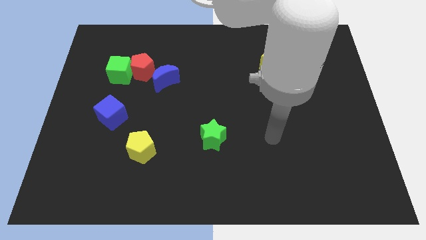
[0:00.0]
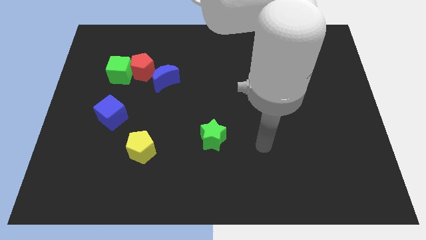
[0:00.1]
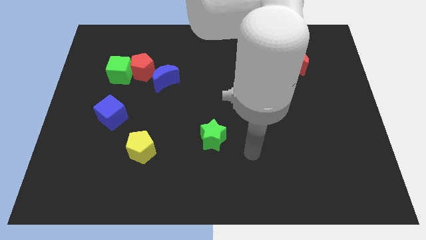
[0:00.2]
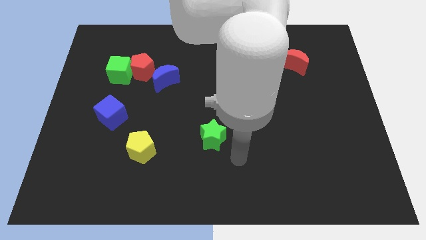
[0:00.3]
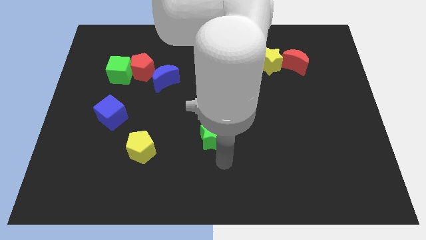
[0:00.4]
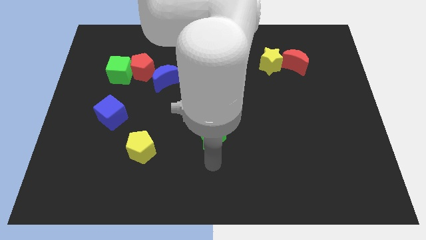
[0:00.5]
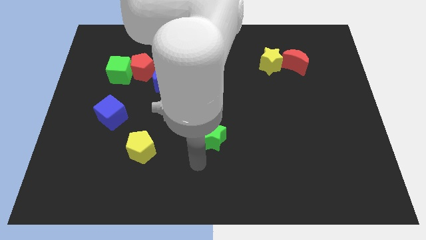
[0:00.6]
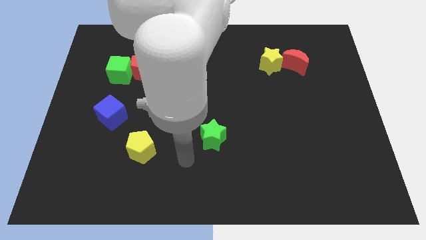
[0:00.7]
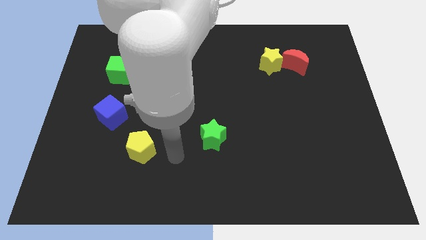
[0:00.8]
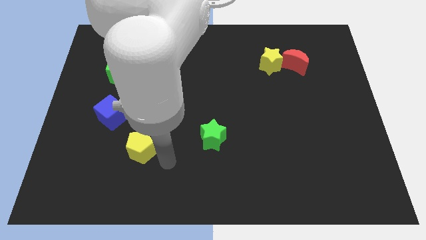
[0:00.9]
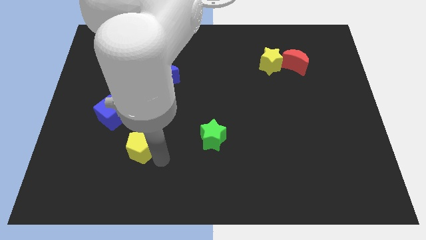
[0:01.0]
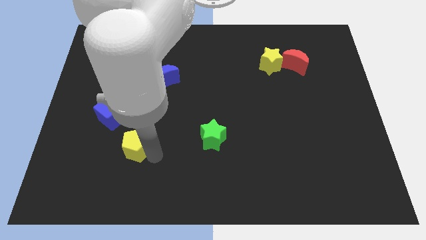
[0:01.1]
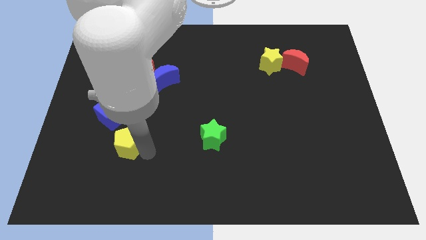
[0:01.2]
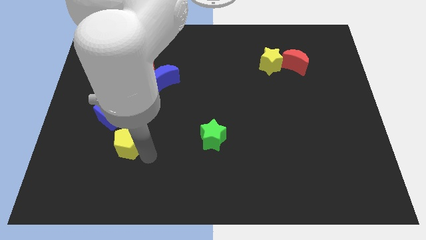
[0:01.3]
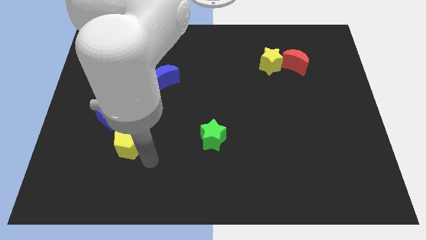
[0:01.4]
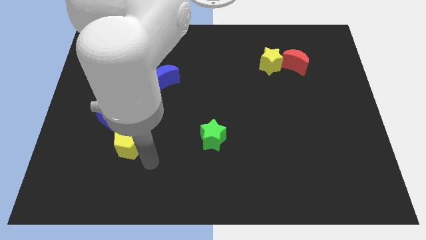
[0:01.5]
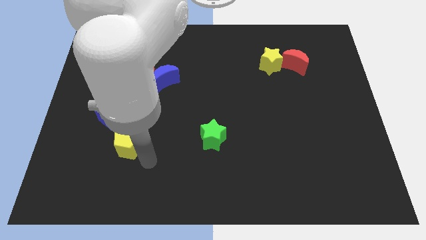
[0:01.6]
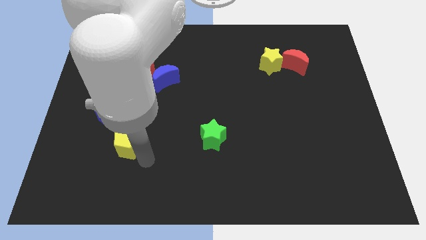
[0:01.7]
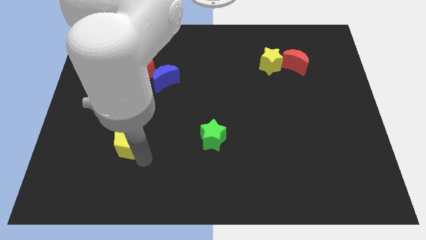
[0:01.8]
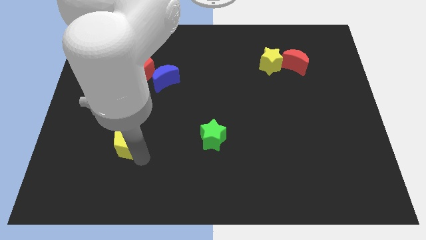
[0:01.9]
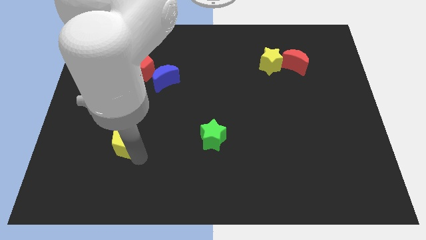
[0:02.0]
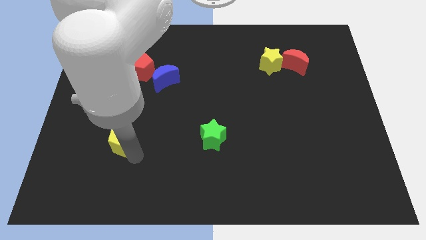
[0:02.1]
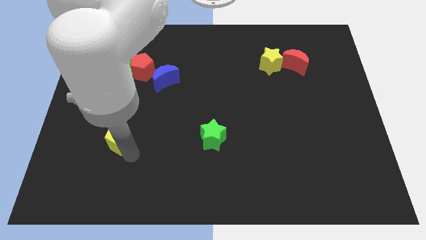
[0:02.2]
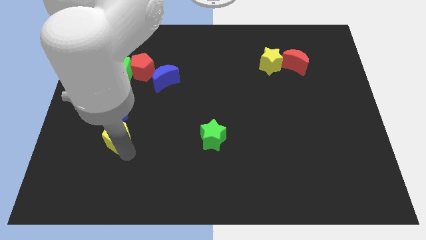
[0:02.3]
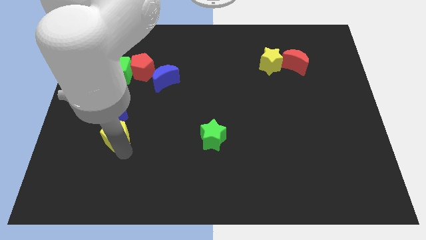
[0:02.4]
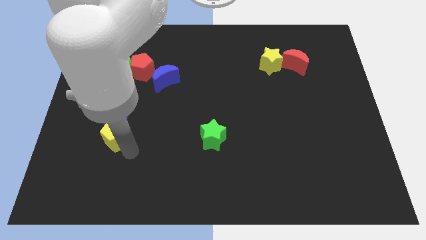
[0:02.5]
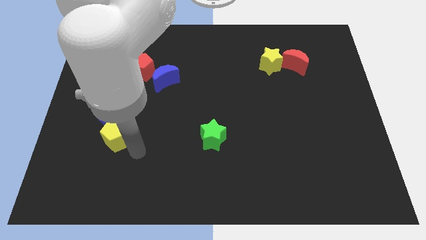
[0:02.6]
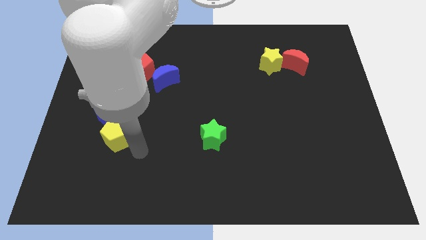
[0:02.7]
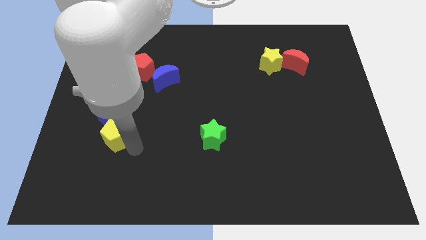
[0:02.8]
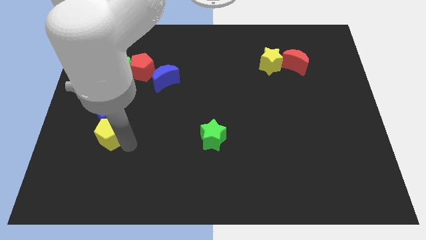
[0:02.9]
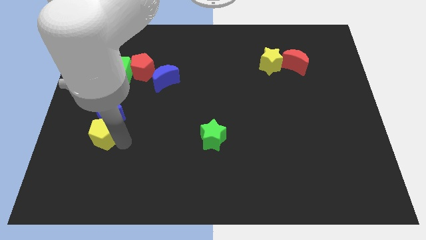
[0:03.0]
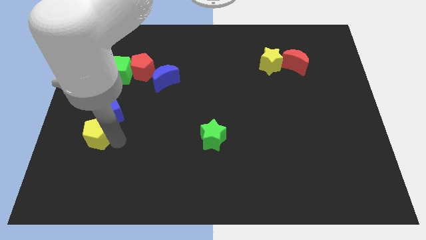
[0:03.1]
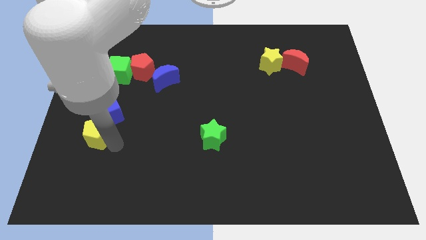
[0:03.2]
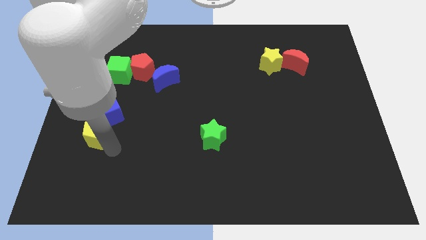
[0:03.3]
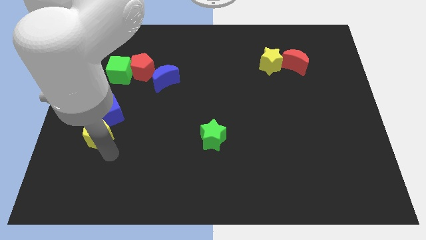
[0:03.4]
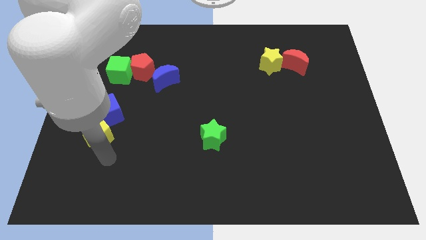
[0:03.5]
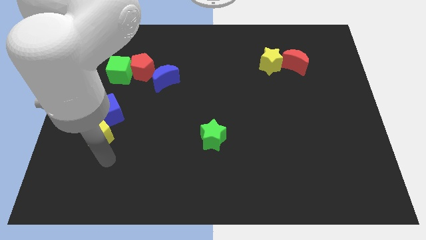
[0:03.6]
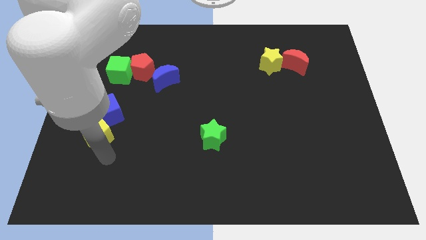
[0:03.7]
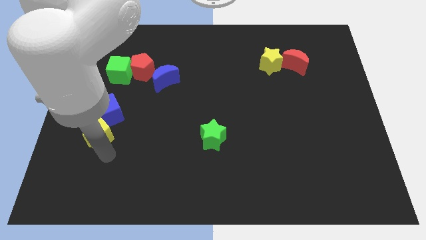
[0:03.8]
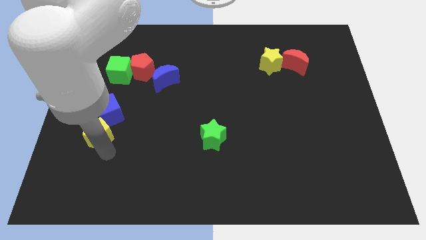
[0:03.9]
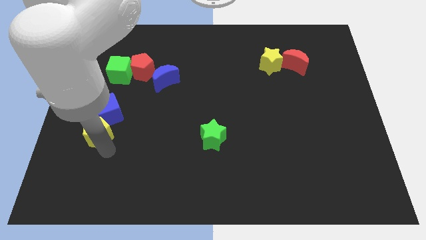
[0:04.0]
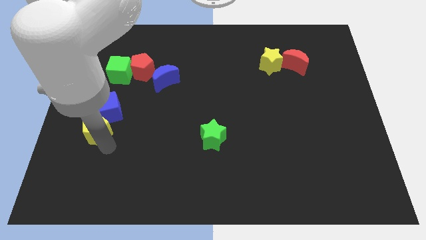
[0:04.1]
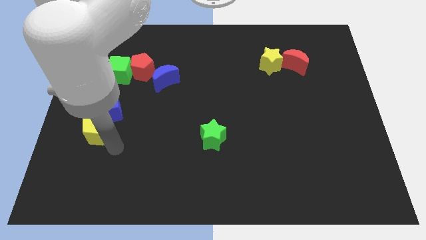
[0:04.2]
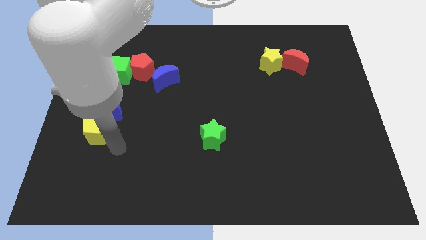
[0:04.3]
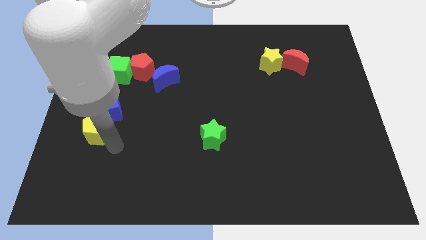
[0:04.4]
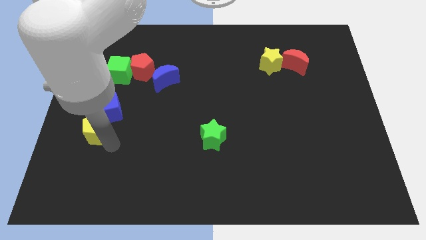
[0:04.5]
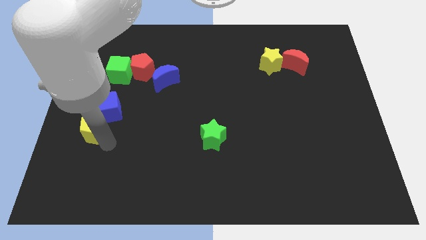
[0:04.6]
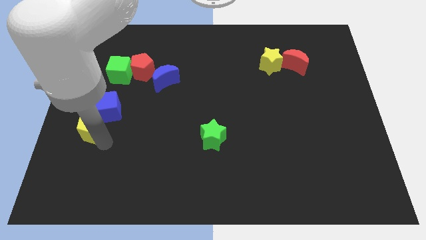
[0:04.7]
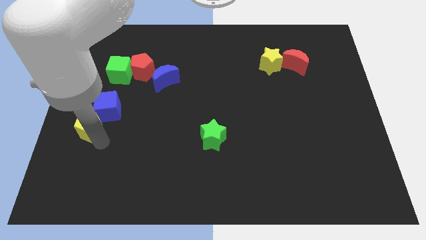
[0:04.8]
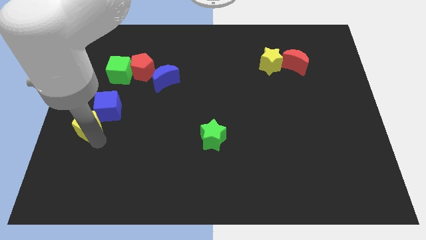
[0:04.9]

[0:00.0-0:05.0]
slide the yellow pentagon to the left side
